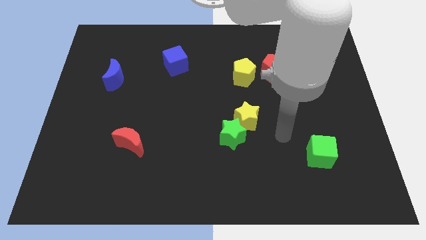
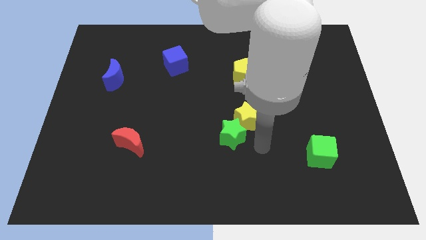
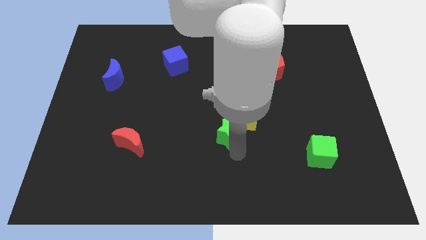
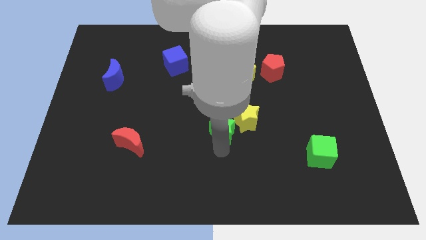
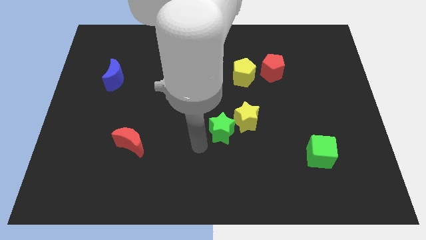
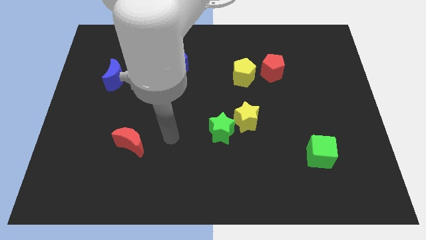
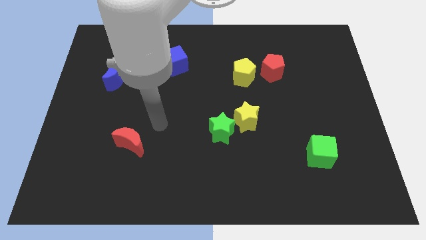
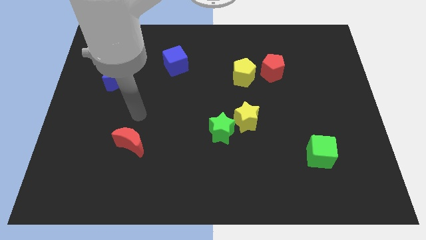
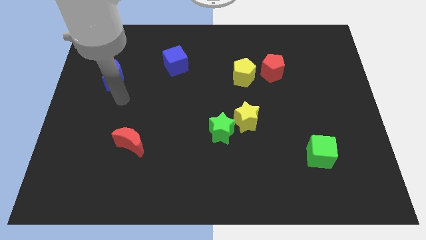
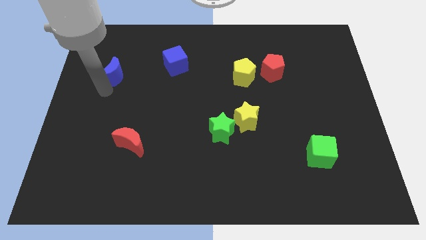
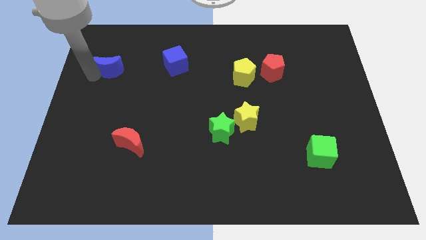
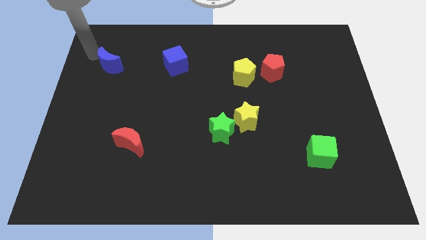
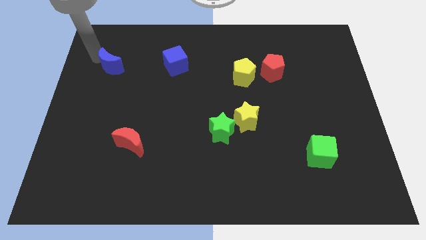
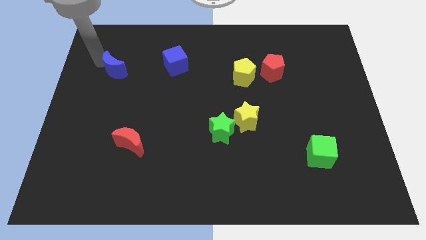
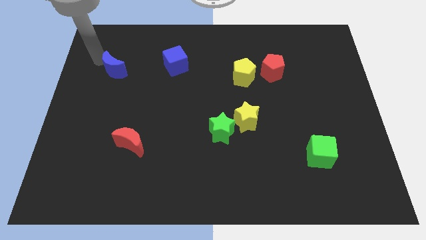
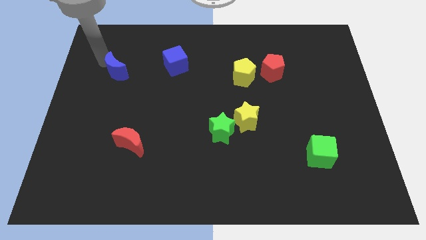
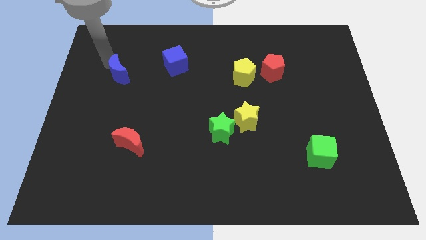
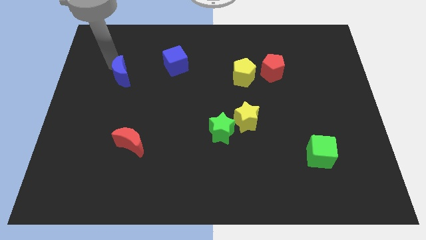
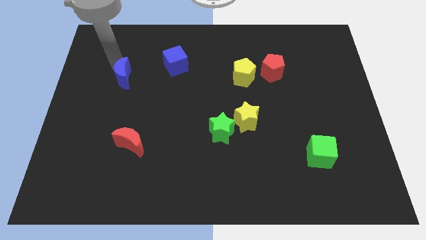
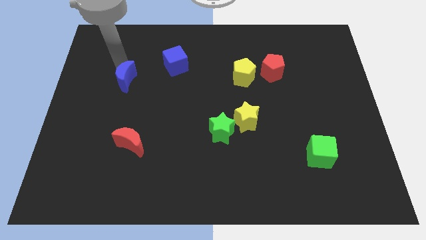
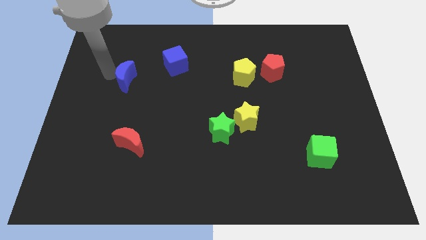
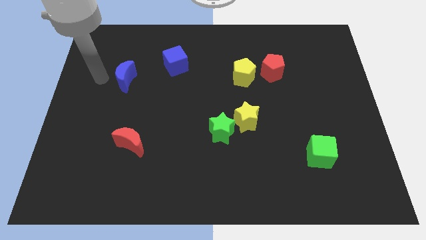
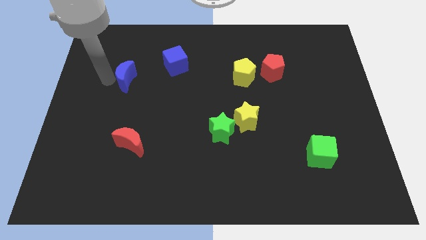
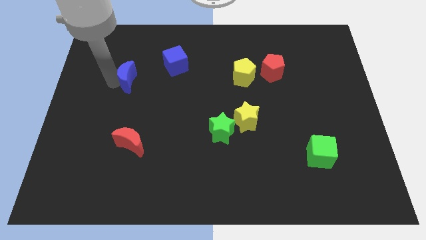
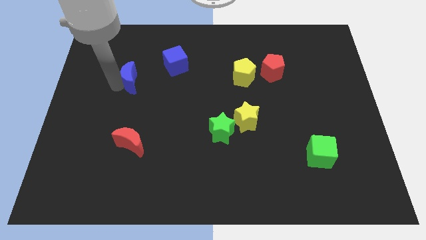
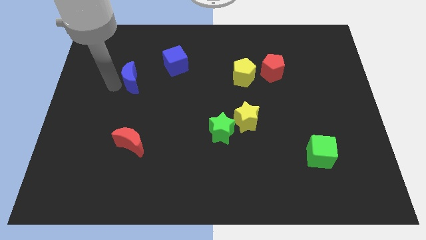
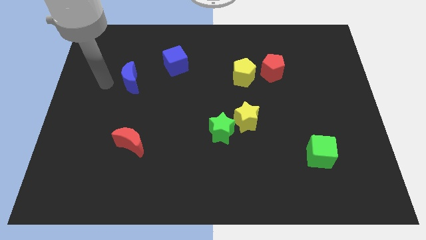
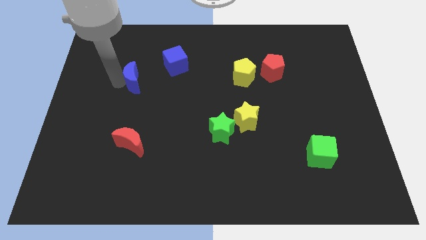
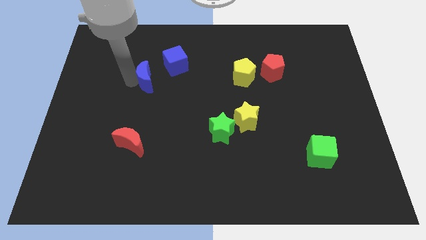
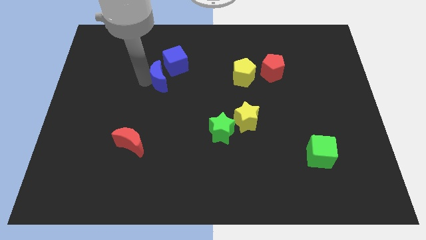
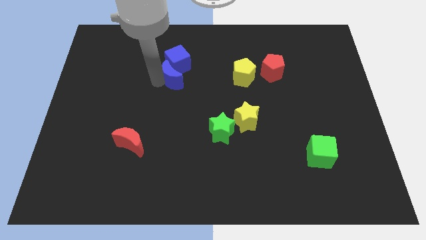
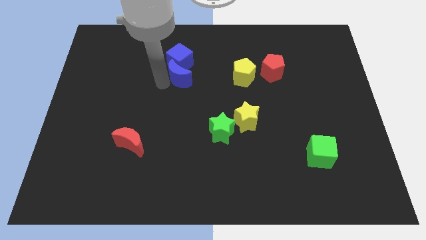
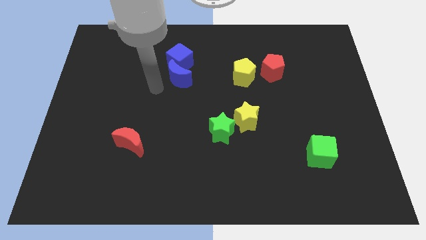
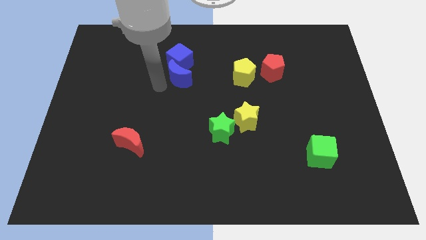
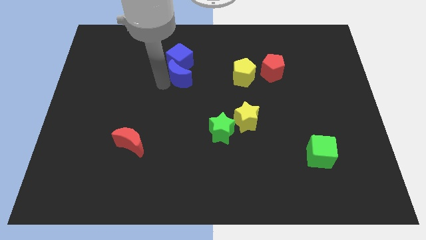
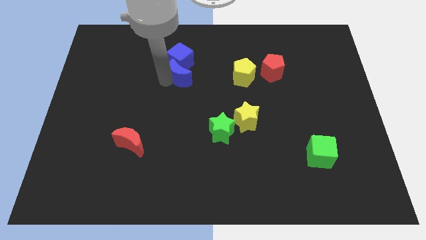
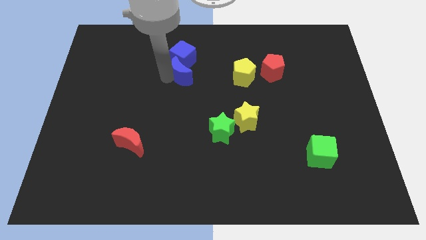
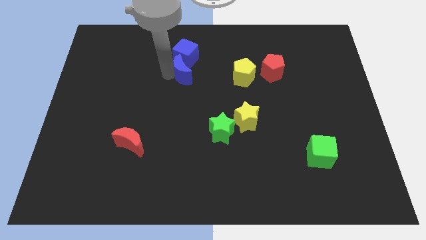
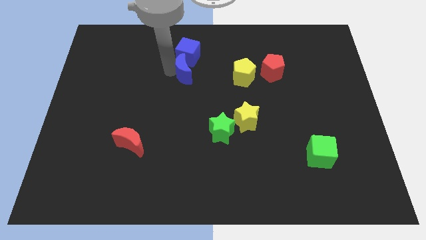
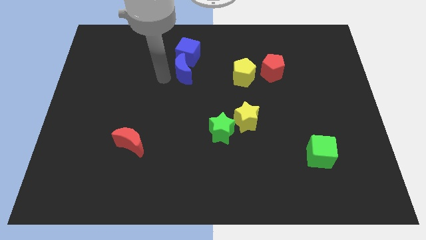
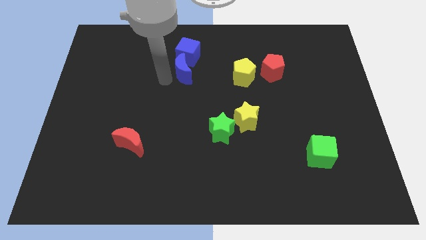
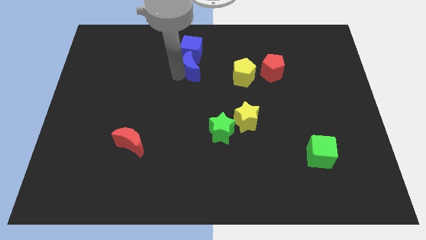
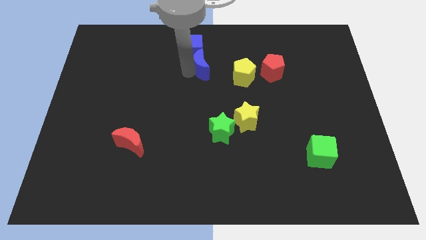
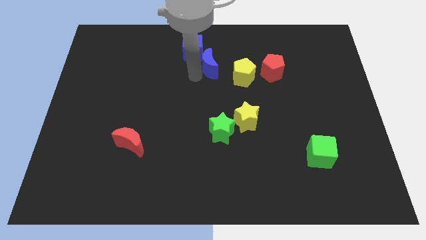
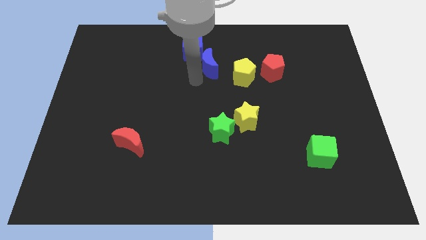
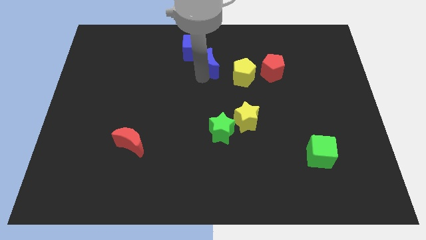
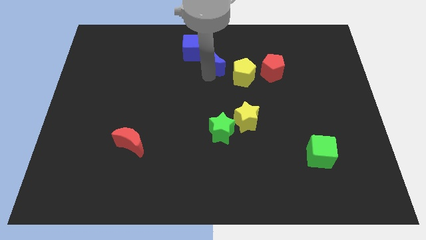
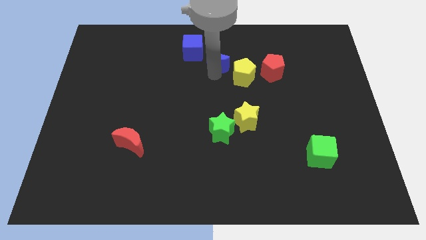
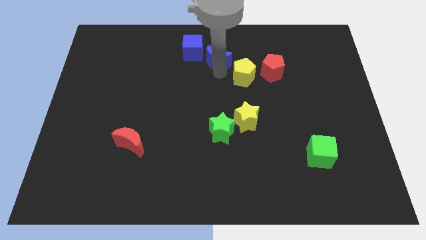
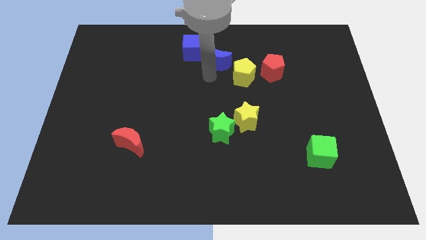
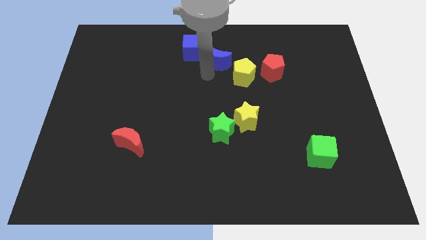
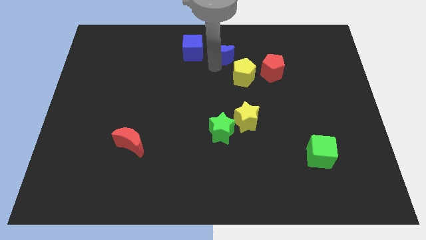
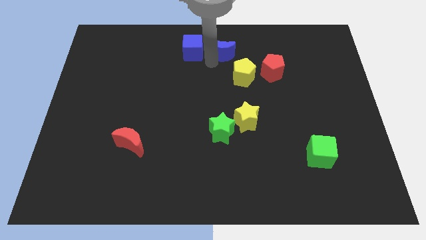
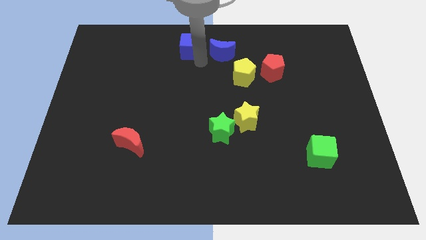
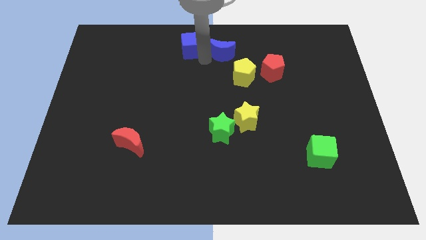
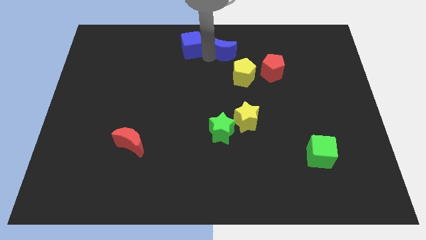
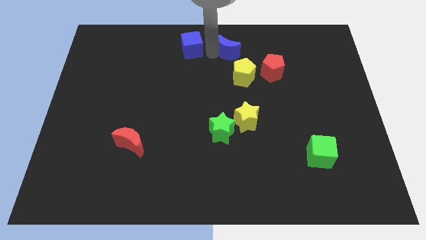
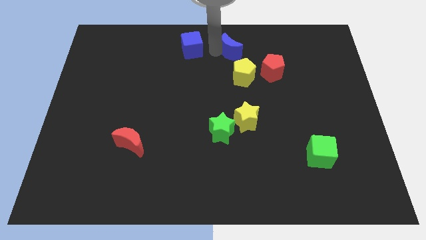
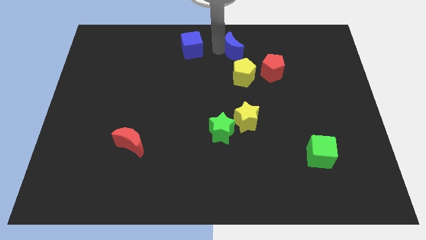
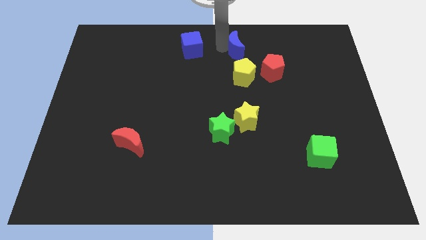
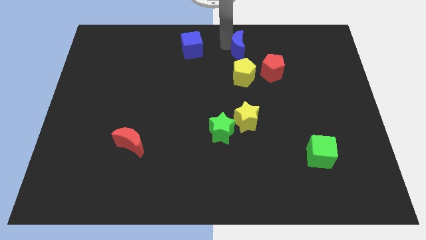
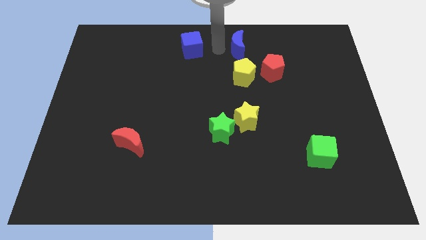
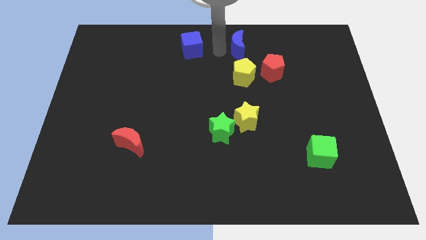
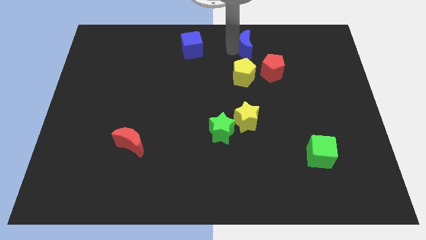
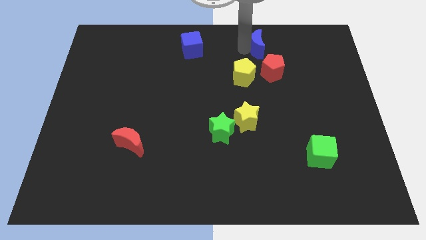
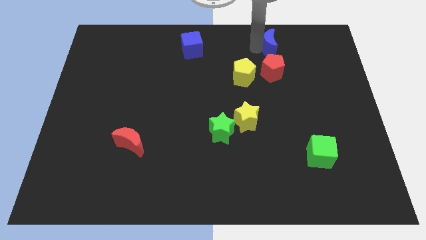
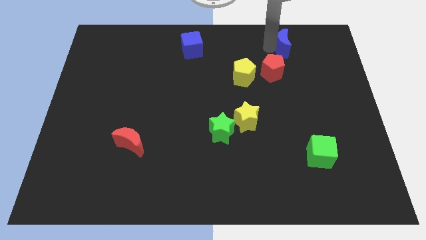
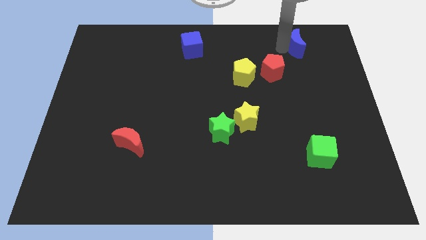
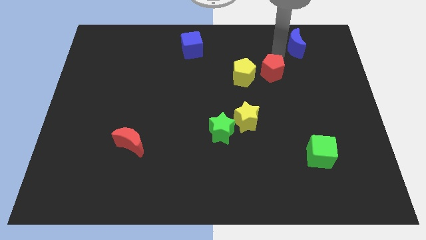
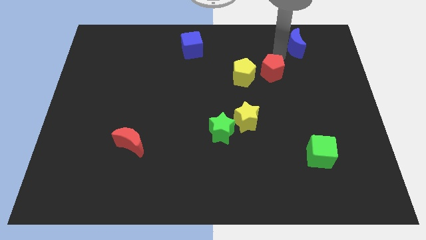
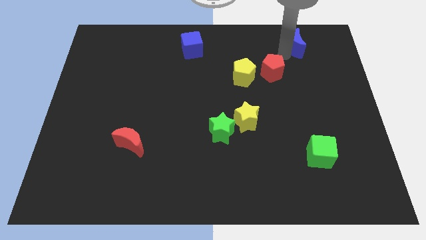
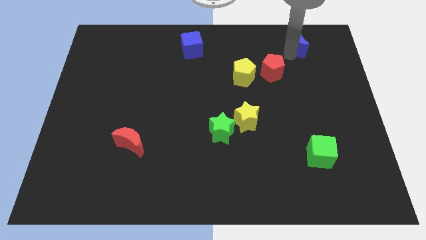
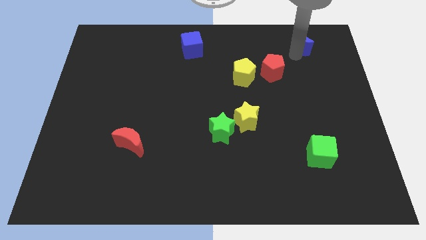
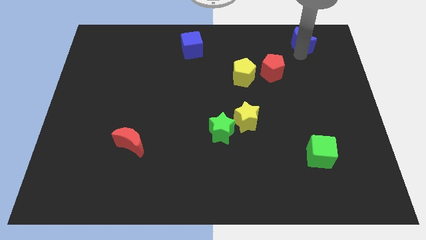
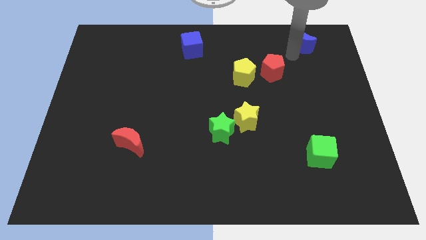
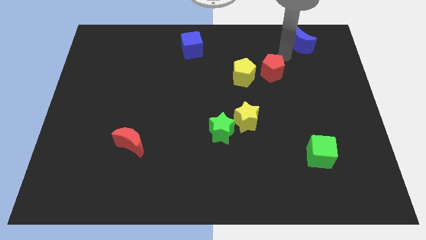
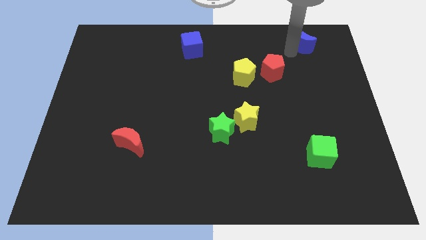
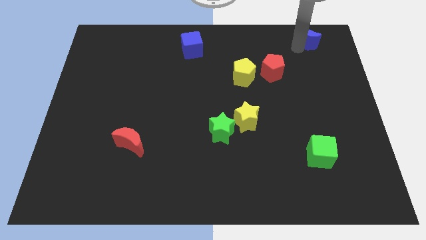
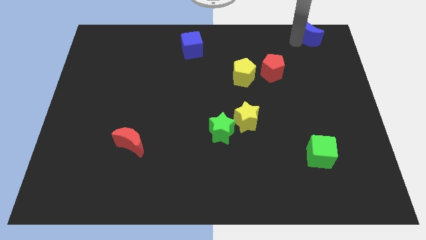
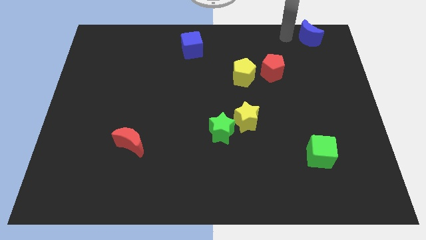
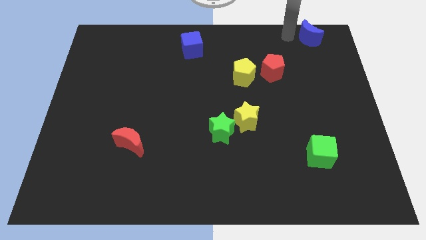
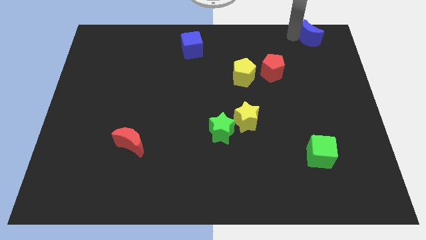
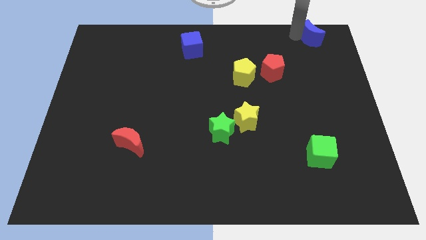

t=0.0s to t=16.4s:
slide the blue moon to the top right of the board
